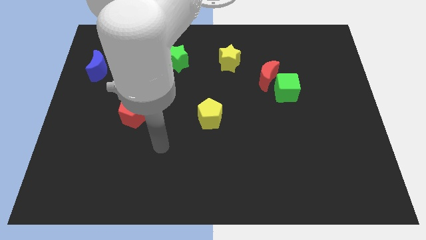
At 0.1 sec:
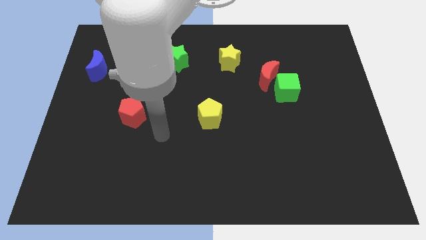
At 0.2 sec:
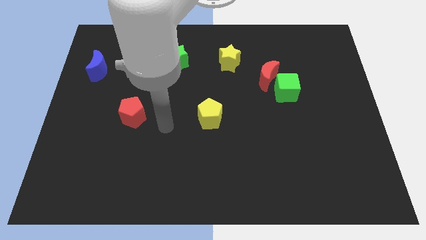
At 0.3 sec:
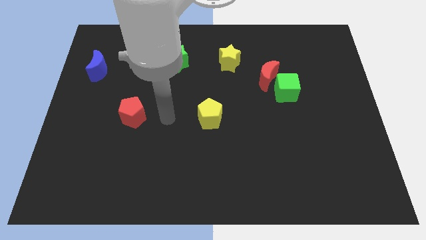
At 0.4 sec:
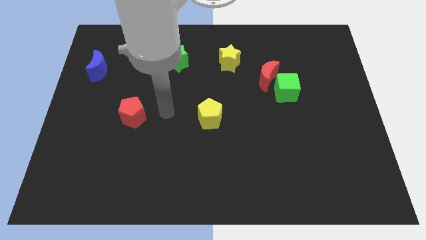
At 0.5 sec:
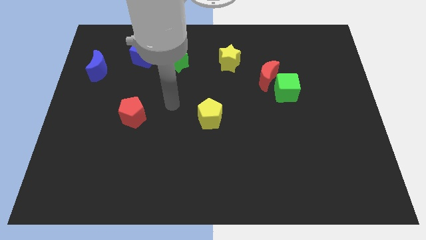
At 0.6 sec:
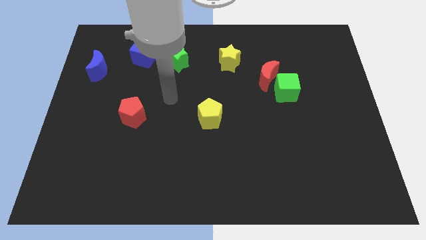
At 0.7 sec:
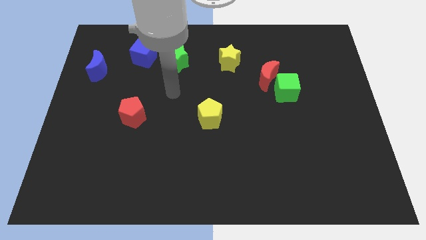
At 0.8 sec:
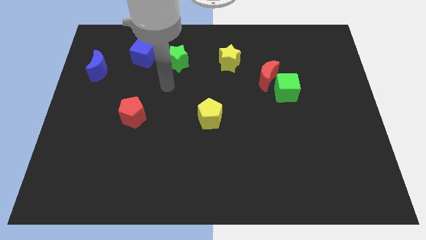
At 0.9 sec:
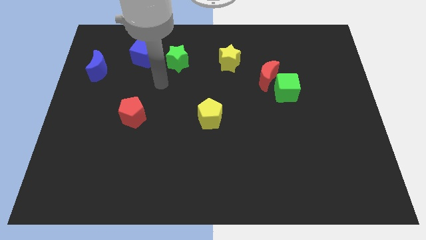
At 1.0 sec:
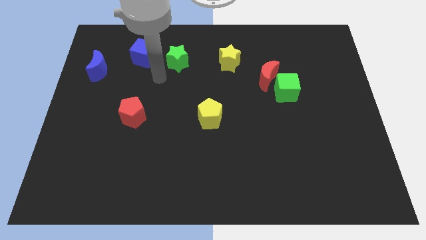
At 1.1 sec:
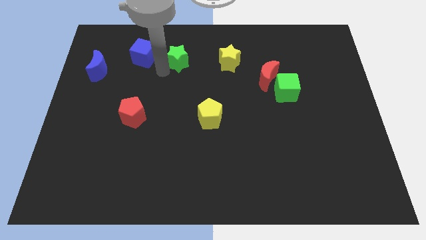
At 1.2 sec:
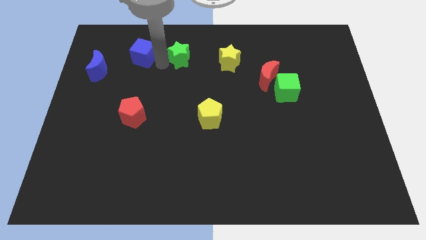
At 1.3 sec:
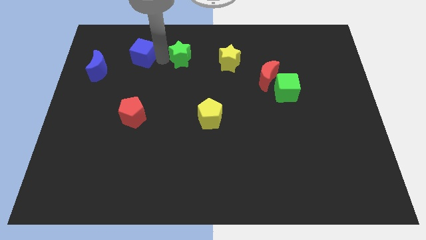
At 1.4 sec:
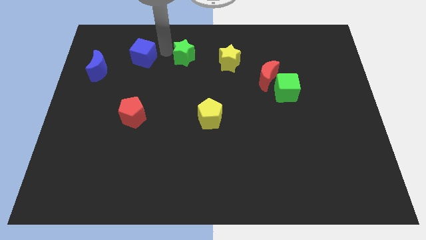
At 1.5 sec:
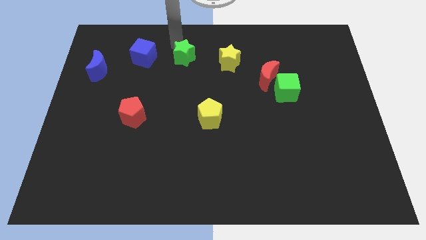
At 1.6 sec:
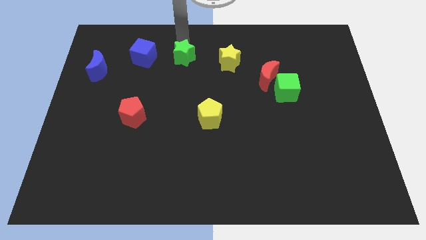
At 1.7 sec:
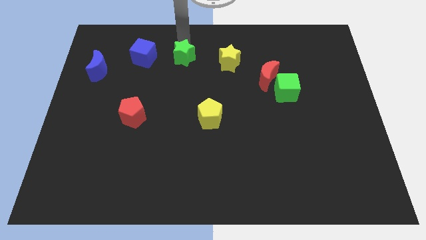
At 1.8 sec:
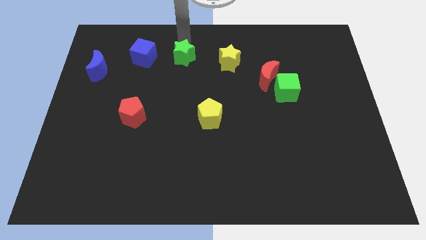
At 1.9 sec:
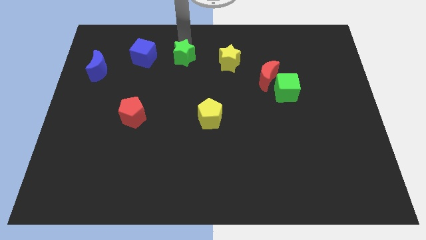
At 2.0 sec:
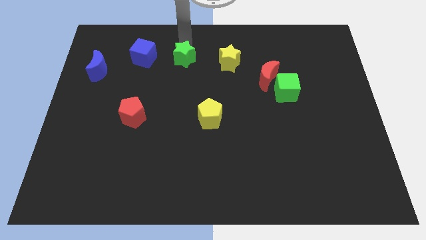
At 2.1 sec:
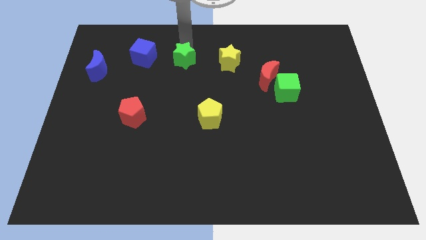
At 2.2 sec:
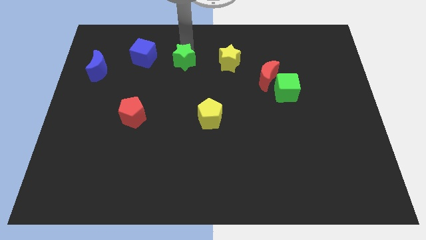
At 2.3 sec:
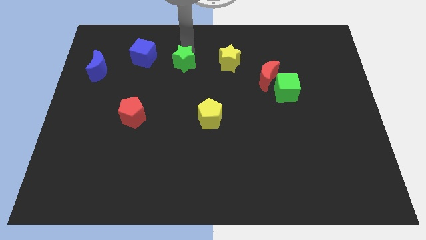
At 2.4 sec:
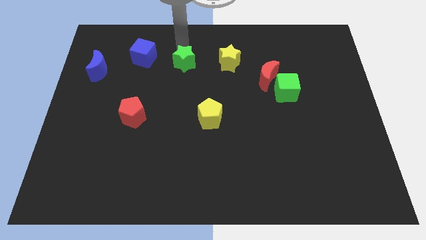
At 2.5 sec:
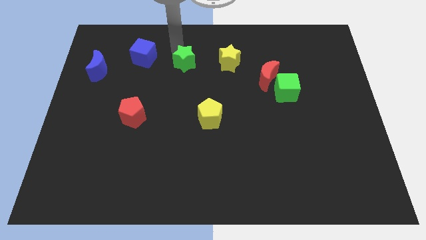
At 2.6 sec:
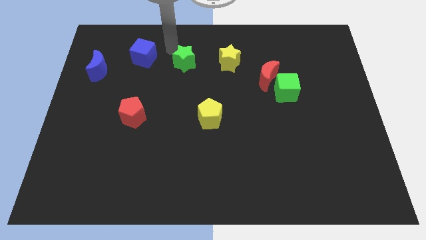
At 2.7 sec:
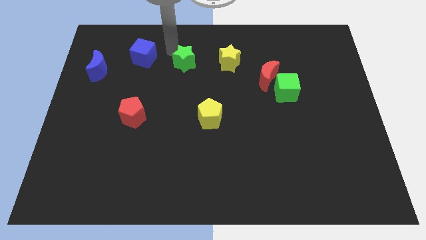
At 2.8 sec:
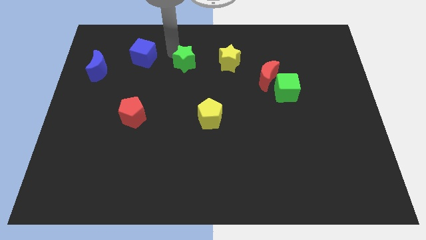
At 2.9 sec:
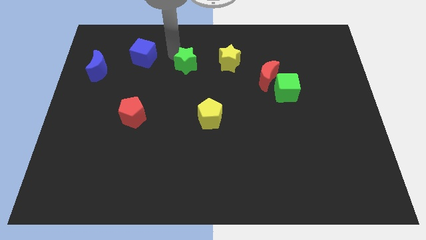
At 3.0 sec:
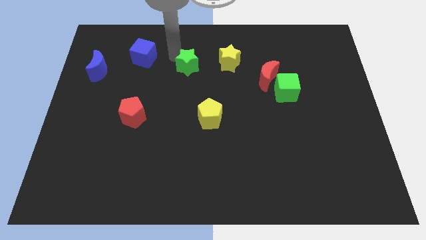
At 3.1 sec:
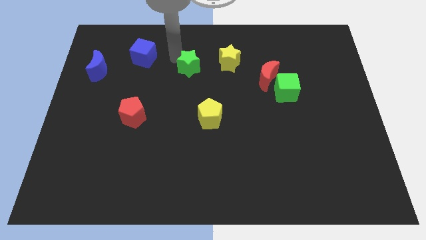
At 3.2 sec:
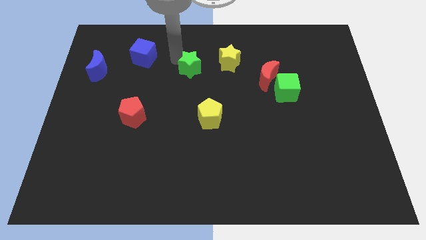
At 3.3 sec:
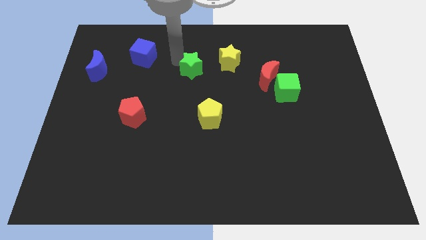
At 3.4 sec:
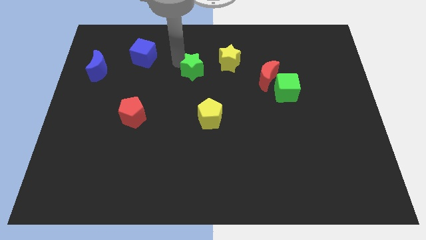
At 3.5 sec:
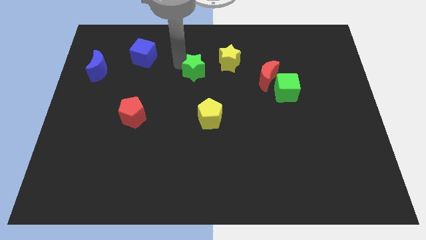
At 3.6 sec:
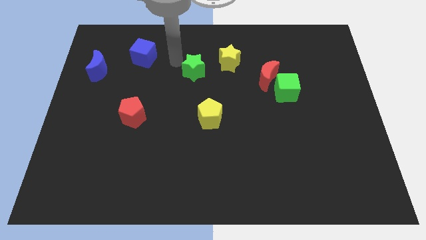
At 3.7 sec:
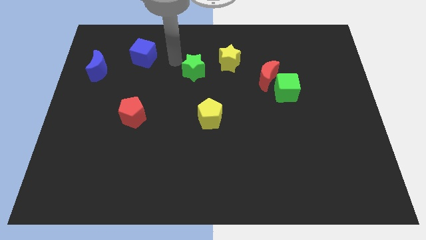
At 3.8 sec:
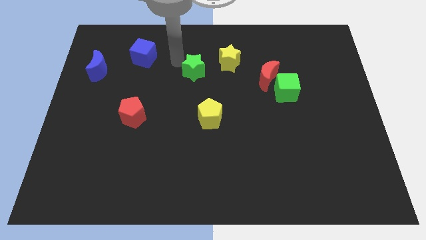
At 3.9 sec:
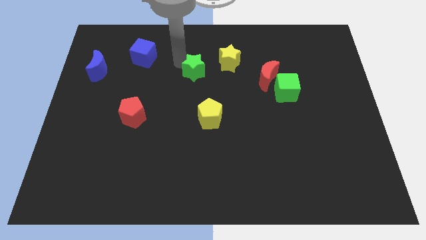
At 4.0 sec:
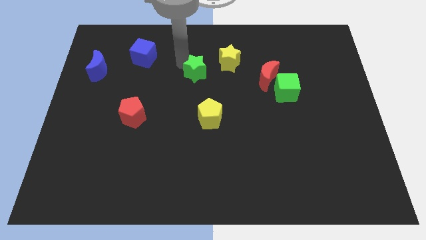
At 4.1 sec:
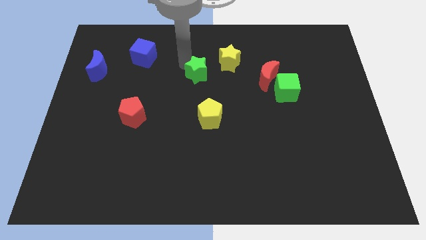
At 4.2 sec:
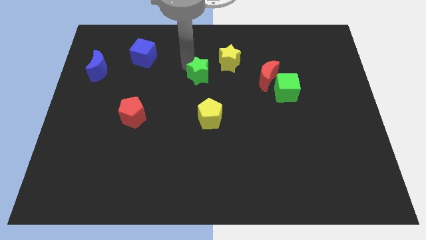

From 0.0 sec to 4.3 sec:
push the green star a little bit down and to the right diagonally

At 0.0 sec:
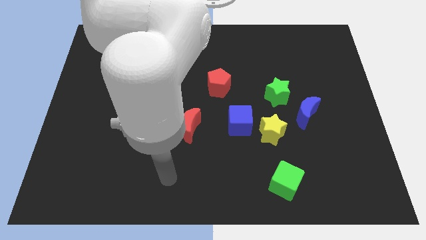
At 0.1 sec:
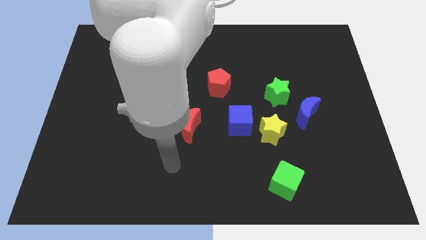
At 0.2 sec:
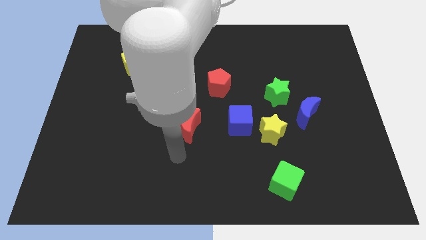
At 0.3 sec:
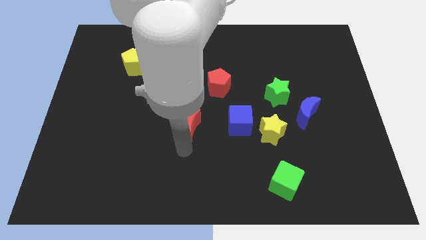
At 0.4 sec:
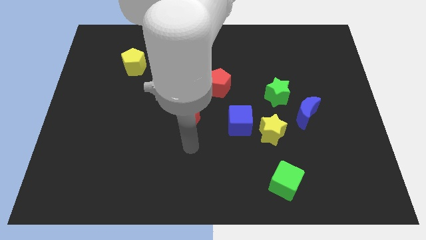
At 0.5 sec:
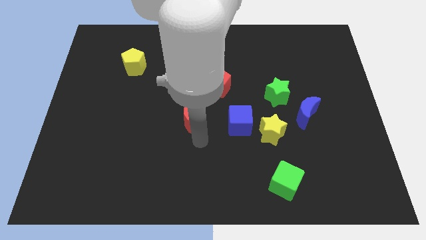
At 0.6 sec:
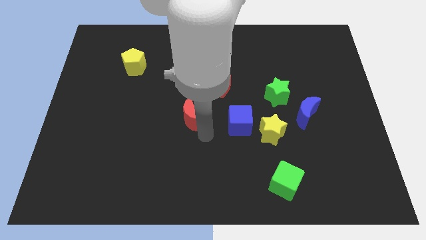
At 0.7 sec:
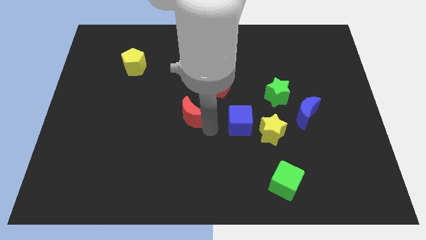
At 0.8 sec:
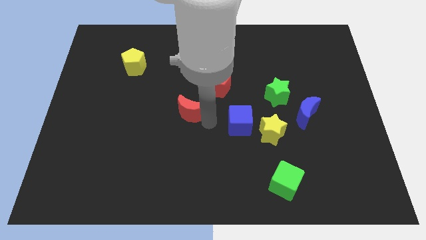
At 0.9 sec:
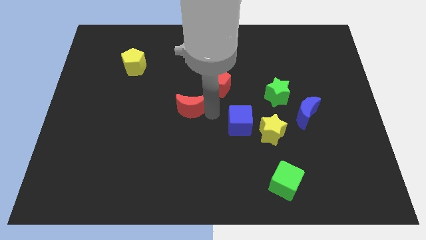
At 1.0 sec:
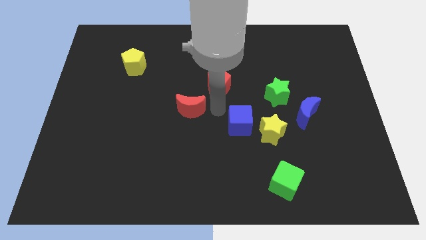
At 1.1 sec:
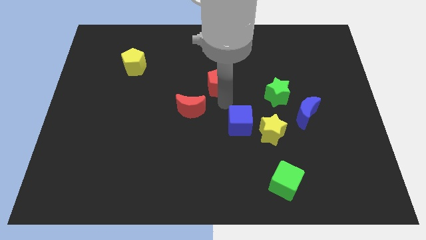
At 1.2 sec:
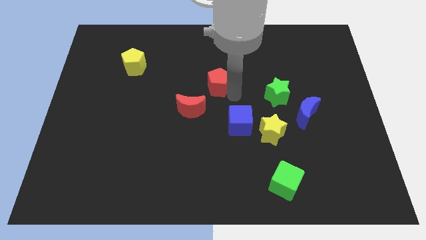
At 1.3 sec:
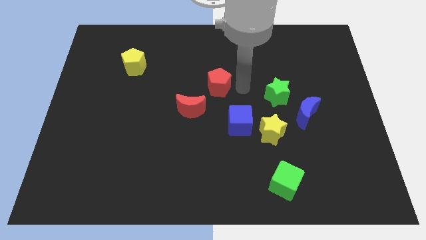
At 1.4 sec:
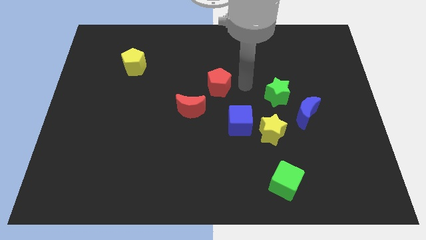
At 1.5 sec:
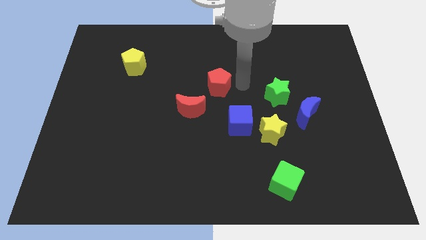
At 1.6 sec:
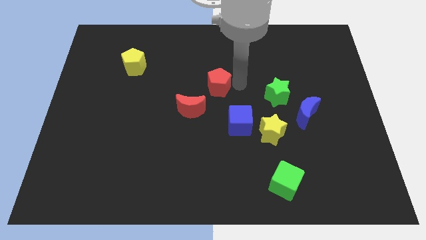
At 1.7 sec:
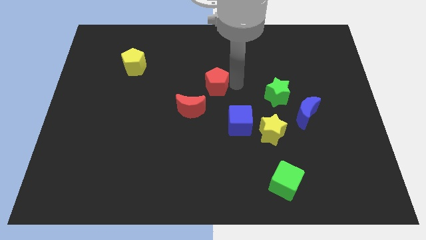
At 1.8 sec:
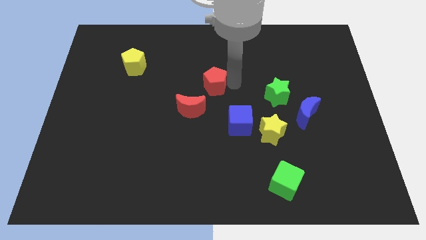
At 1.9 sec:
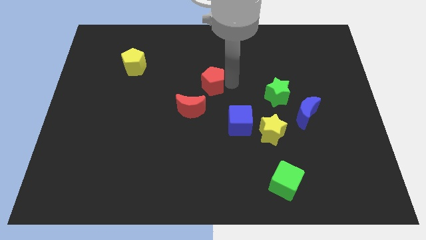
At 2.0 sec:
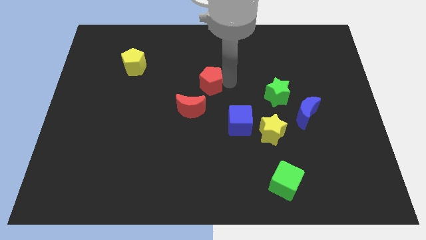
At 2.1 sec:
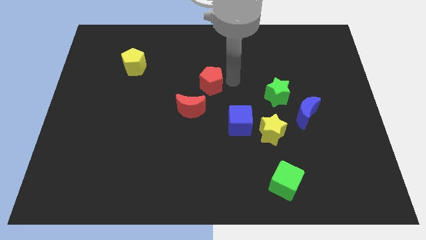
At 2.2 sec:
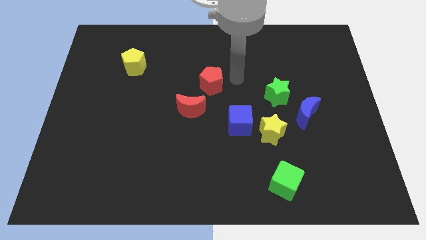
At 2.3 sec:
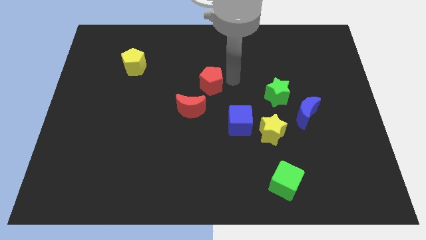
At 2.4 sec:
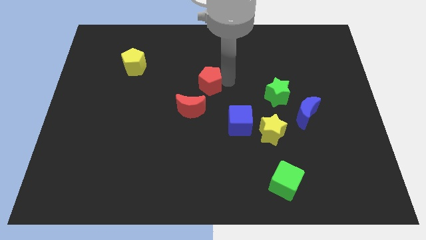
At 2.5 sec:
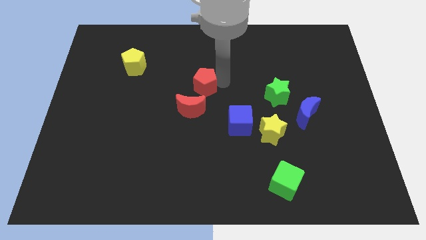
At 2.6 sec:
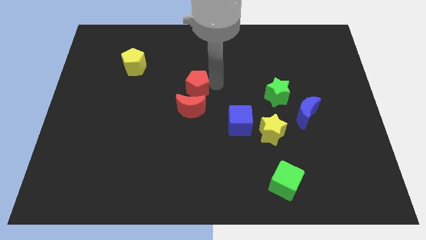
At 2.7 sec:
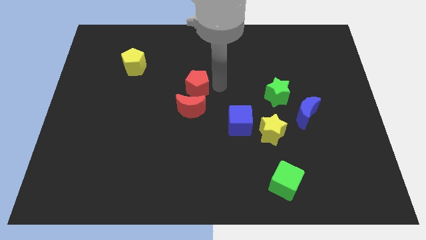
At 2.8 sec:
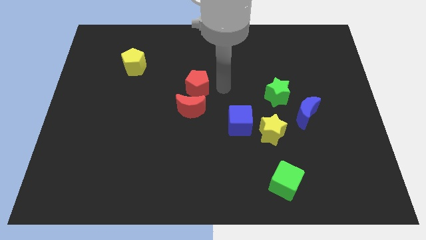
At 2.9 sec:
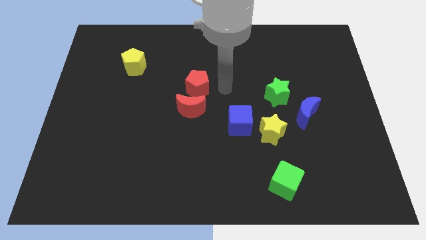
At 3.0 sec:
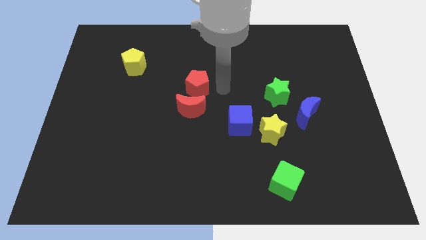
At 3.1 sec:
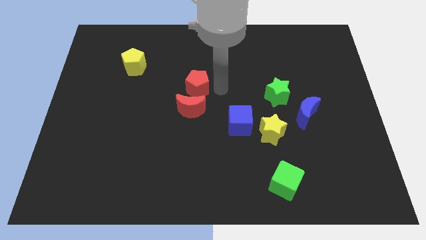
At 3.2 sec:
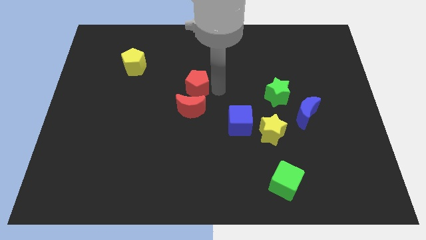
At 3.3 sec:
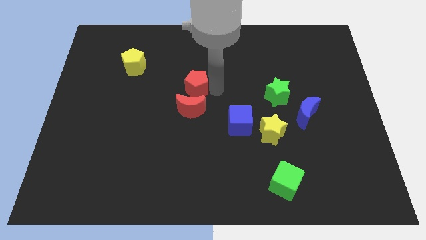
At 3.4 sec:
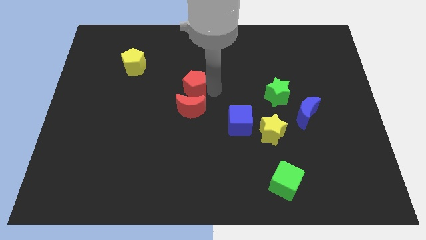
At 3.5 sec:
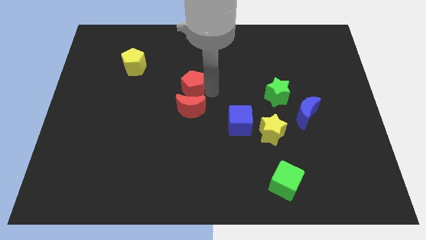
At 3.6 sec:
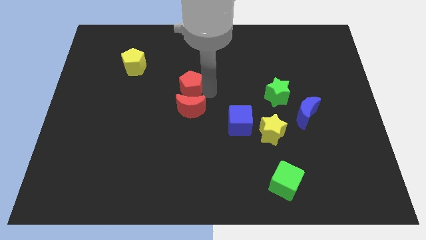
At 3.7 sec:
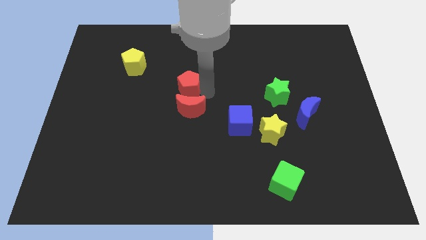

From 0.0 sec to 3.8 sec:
push the red pentagon to the left a bit
